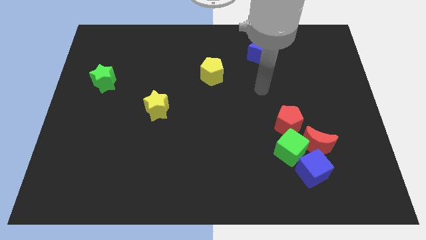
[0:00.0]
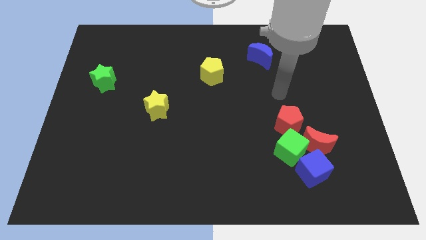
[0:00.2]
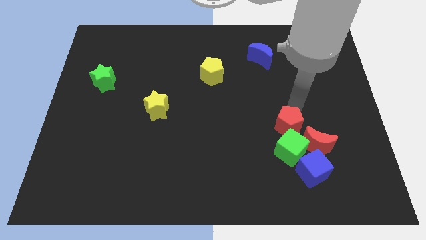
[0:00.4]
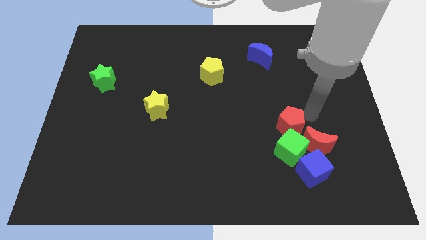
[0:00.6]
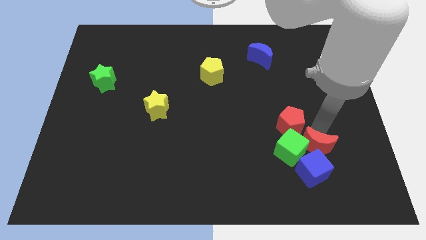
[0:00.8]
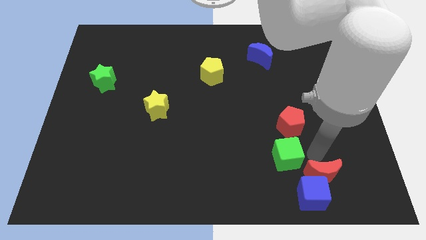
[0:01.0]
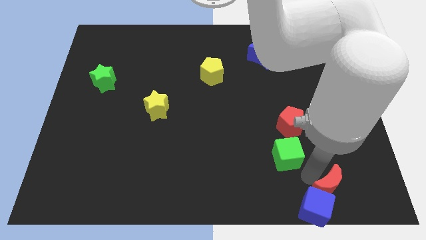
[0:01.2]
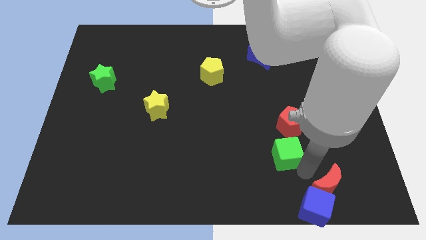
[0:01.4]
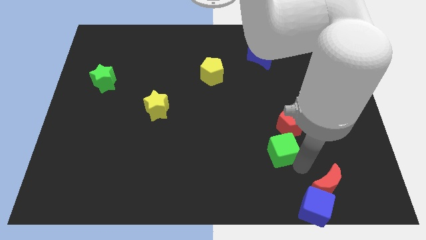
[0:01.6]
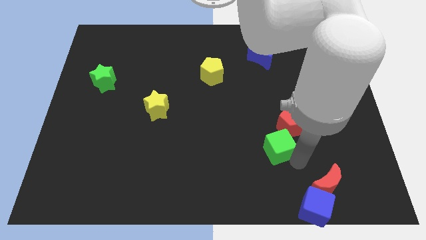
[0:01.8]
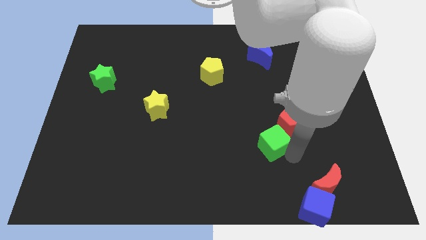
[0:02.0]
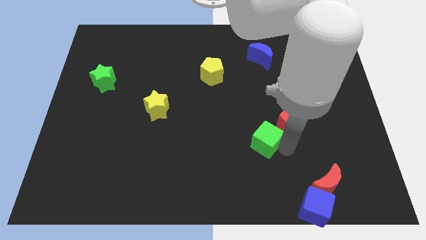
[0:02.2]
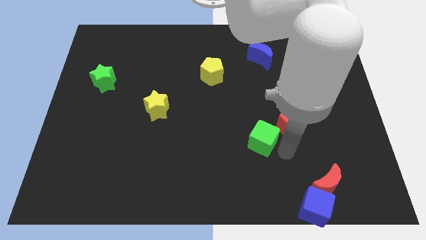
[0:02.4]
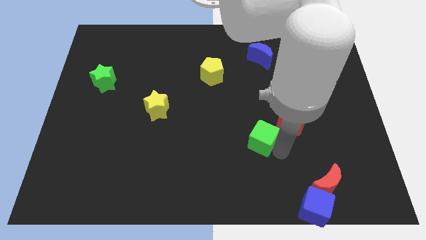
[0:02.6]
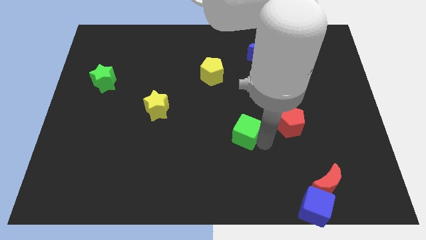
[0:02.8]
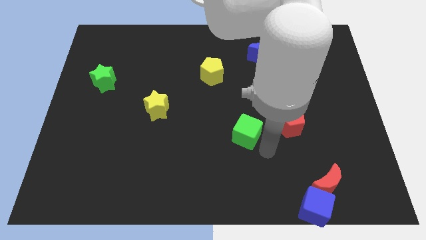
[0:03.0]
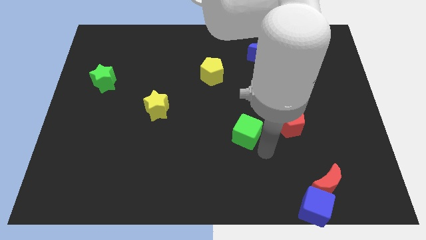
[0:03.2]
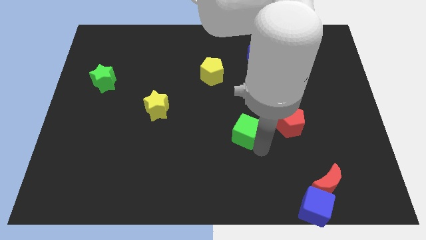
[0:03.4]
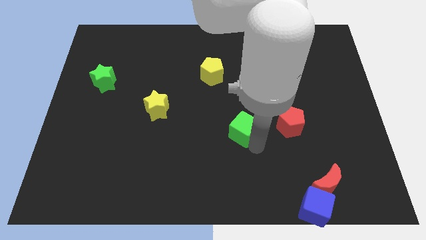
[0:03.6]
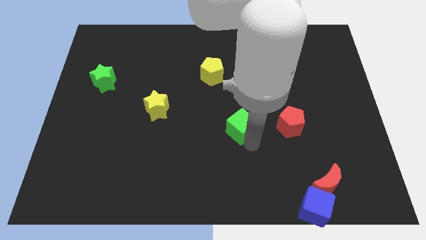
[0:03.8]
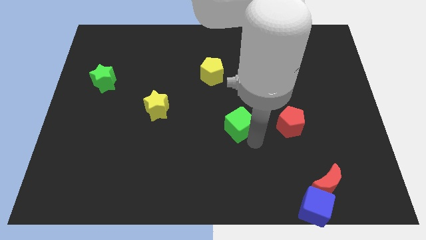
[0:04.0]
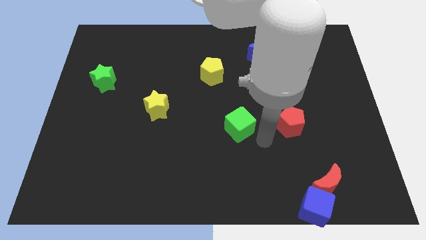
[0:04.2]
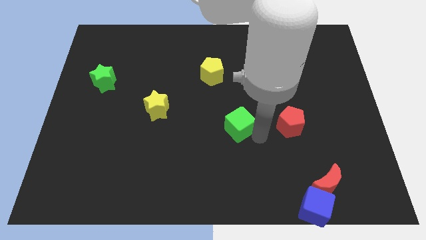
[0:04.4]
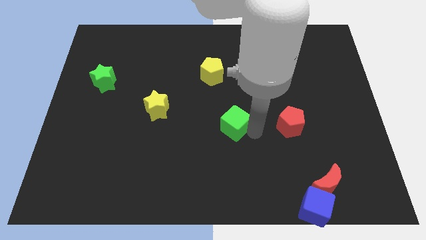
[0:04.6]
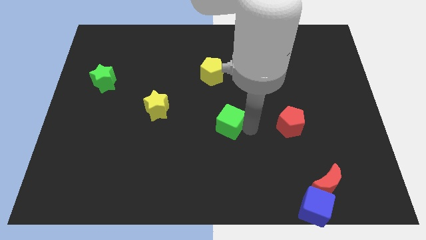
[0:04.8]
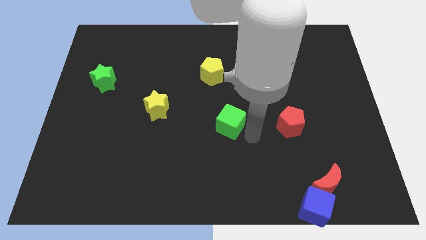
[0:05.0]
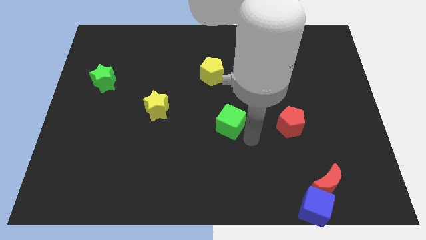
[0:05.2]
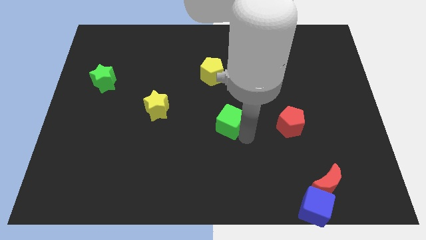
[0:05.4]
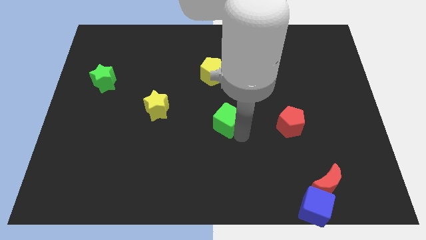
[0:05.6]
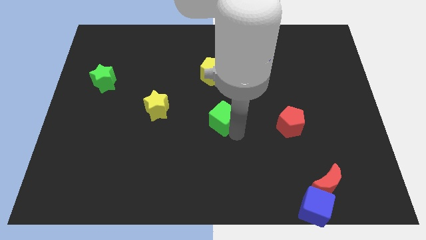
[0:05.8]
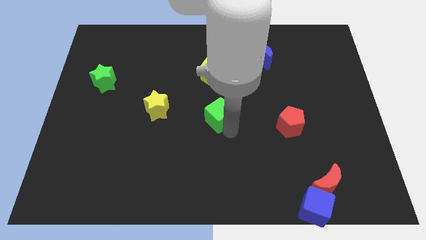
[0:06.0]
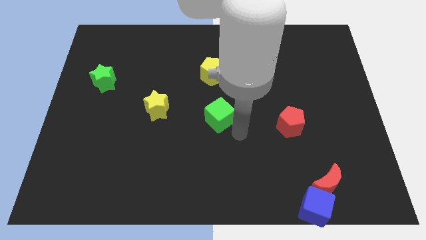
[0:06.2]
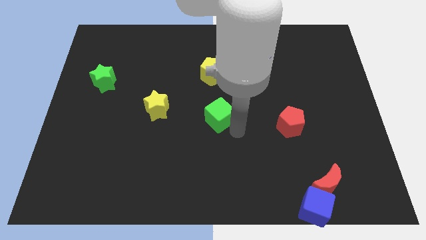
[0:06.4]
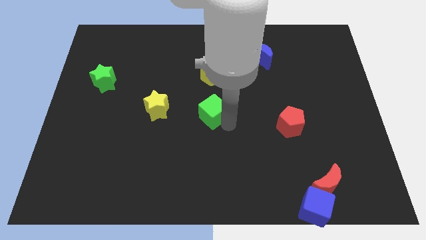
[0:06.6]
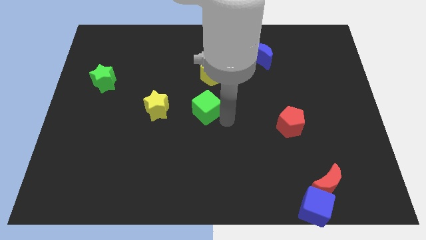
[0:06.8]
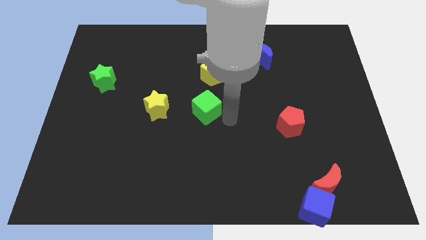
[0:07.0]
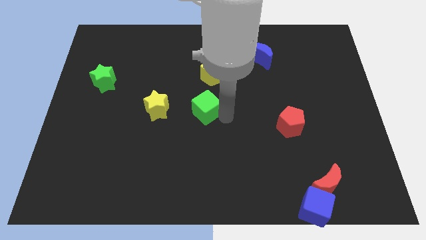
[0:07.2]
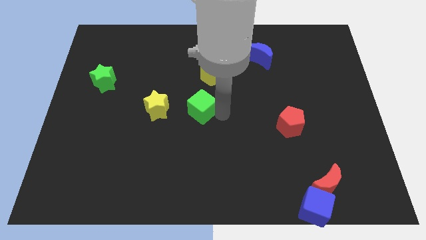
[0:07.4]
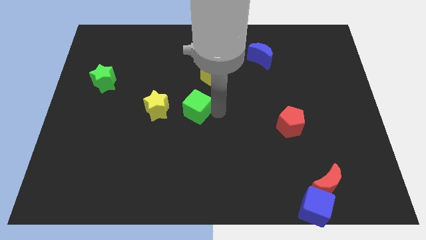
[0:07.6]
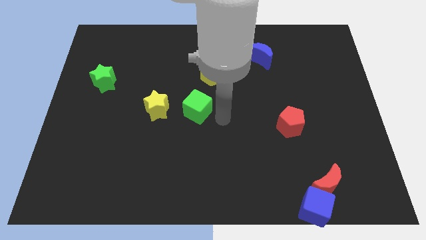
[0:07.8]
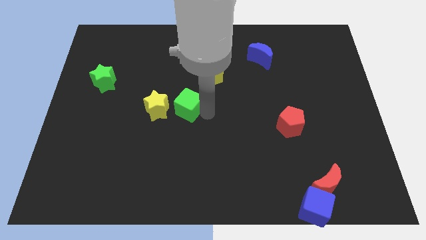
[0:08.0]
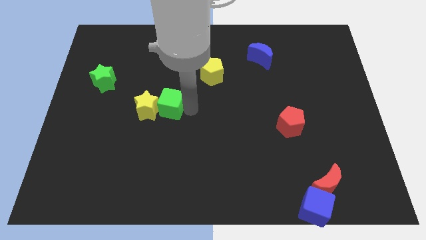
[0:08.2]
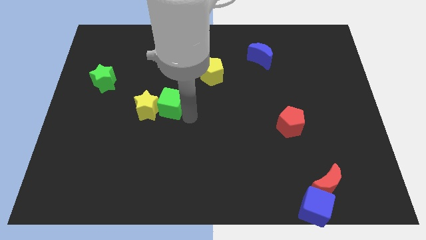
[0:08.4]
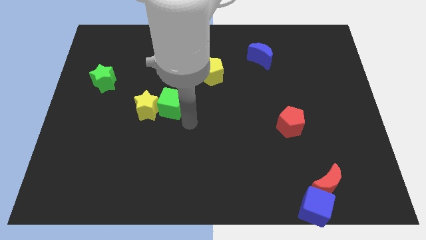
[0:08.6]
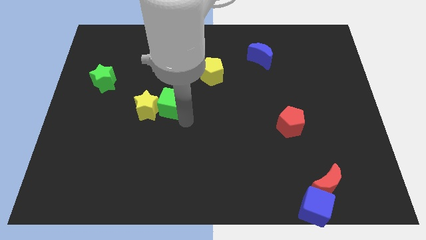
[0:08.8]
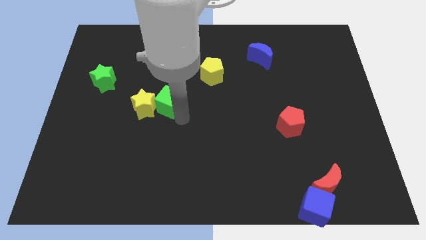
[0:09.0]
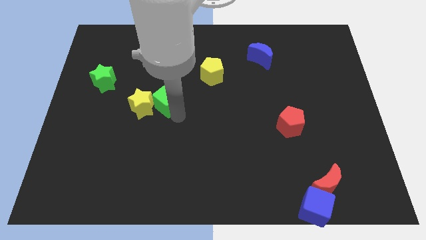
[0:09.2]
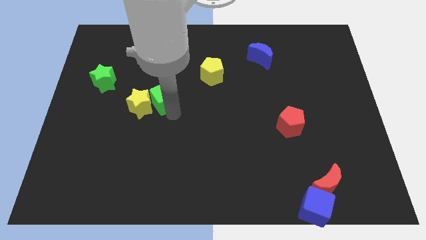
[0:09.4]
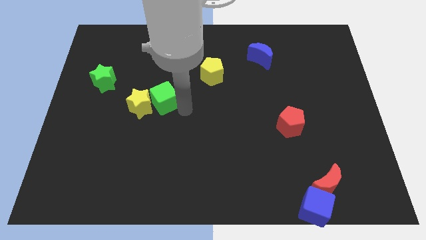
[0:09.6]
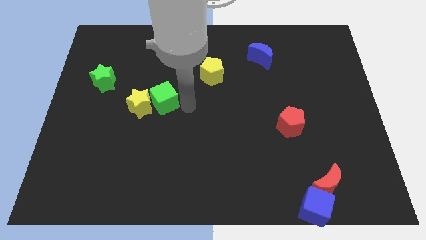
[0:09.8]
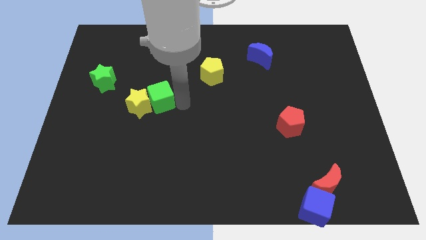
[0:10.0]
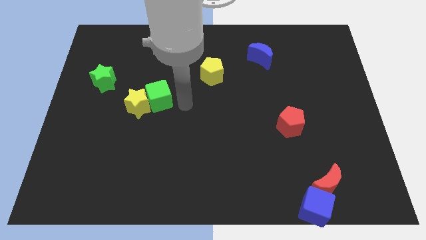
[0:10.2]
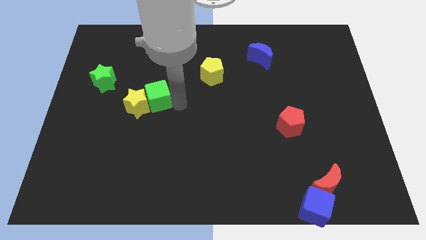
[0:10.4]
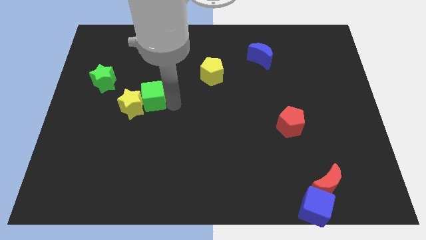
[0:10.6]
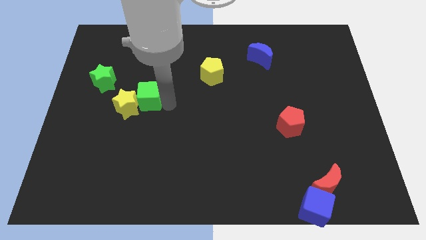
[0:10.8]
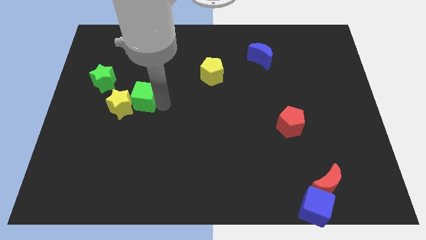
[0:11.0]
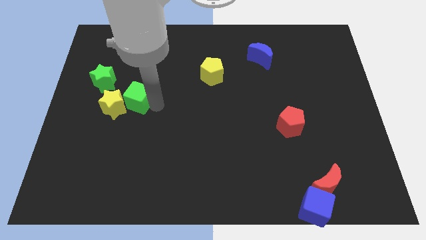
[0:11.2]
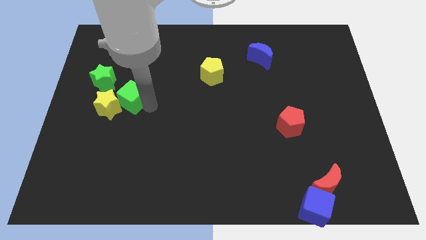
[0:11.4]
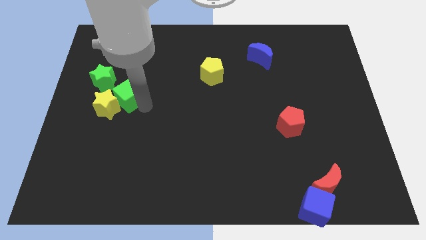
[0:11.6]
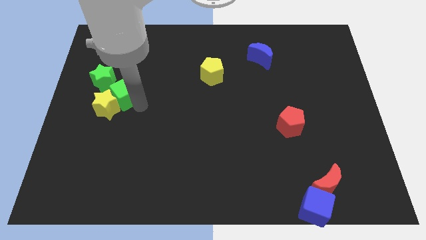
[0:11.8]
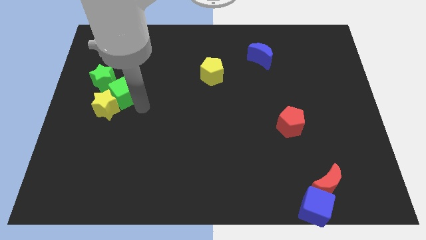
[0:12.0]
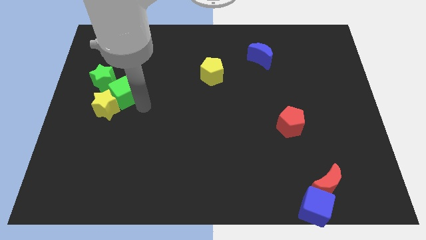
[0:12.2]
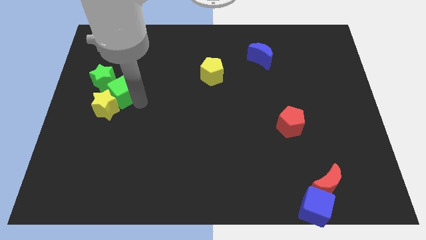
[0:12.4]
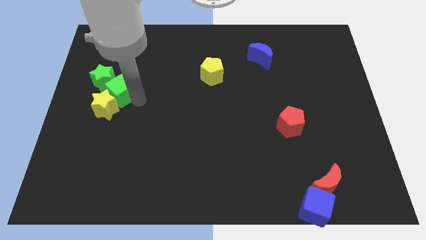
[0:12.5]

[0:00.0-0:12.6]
push the green cube close to the green star

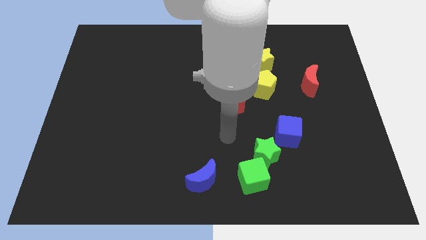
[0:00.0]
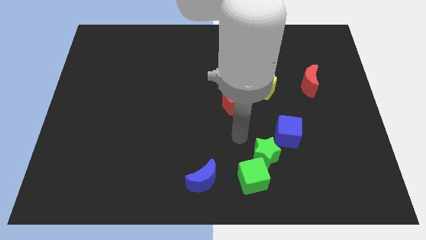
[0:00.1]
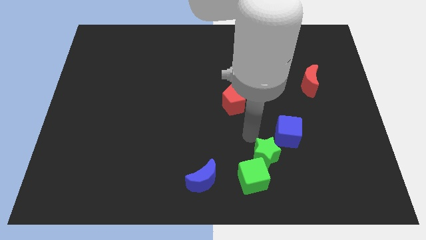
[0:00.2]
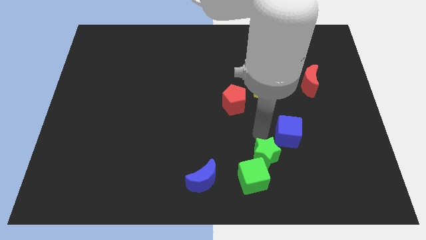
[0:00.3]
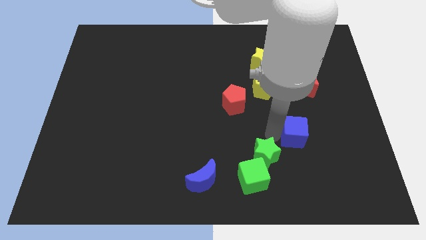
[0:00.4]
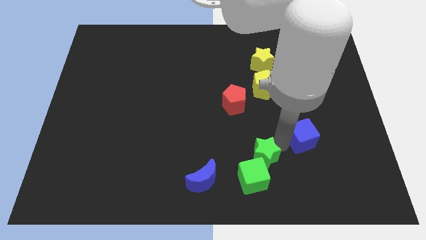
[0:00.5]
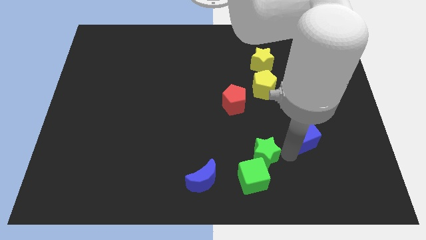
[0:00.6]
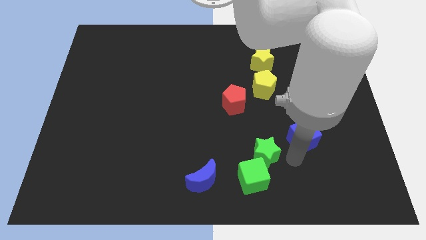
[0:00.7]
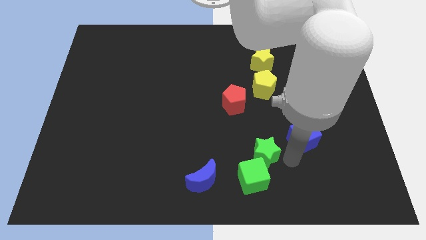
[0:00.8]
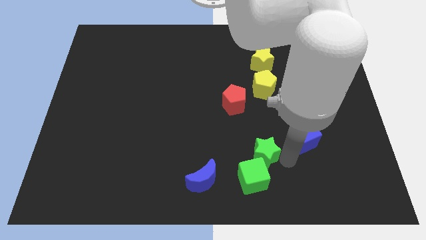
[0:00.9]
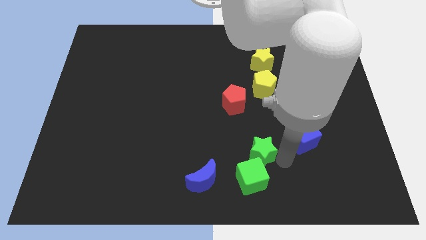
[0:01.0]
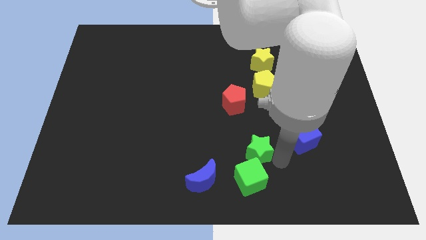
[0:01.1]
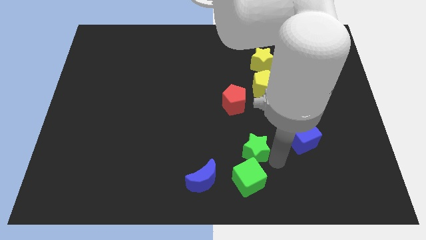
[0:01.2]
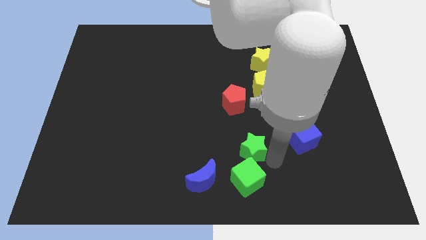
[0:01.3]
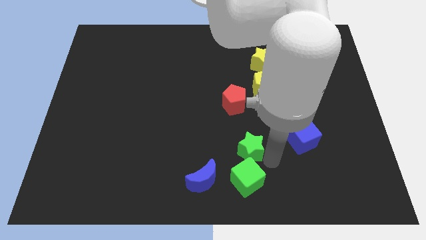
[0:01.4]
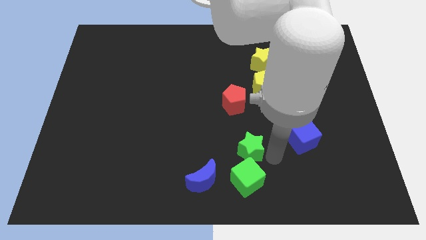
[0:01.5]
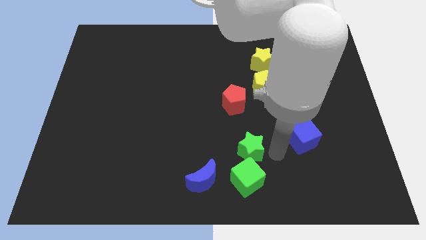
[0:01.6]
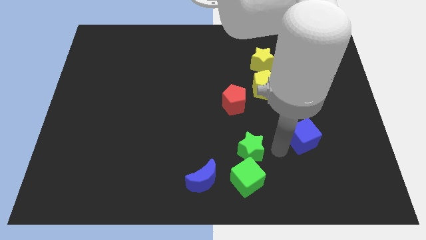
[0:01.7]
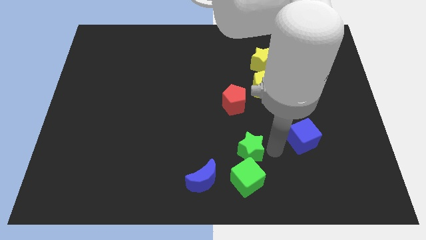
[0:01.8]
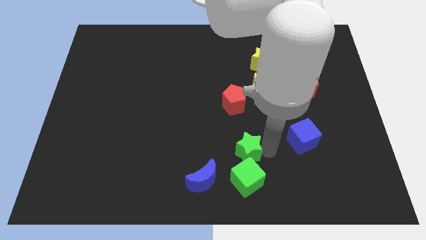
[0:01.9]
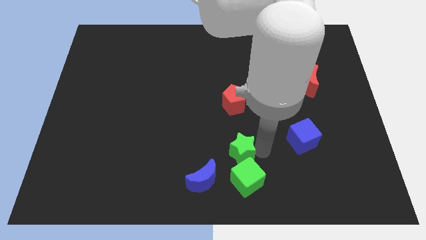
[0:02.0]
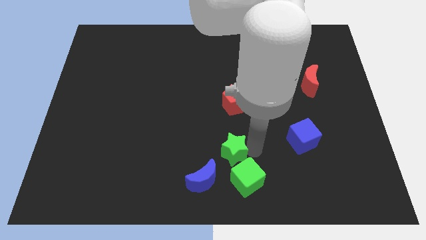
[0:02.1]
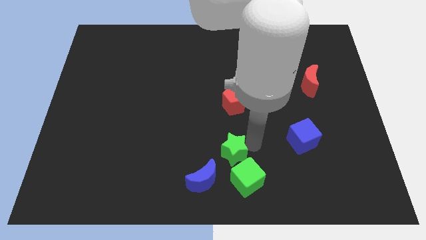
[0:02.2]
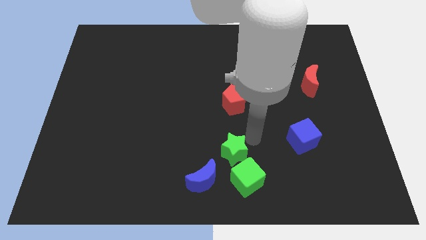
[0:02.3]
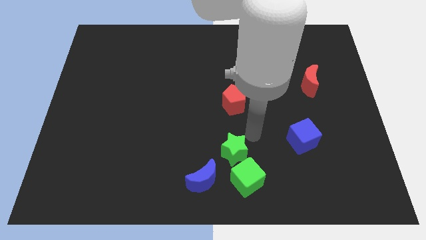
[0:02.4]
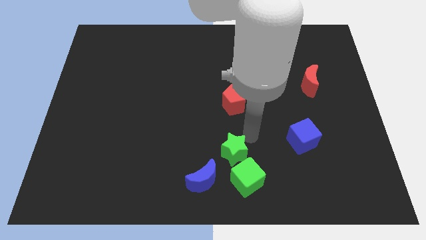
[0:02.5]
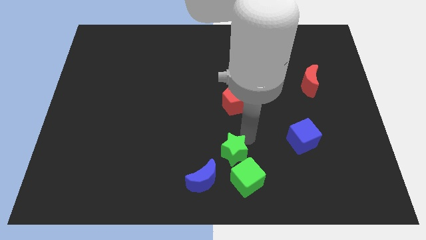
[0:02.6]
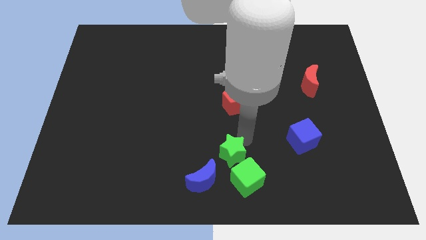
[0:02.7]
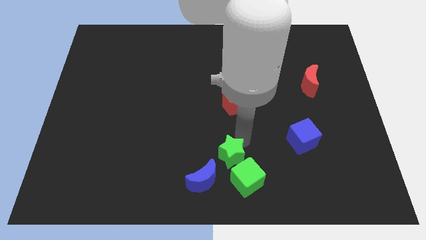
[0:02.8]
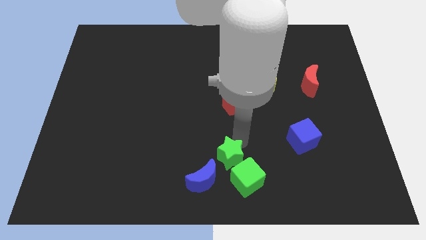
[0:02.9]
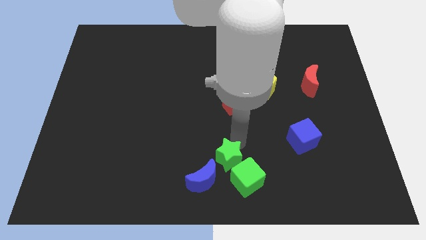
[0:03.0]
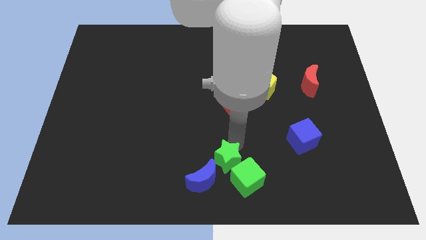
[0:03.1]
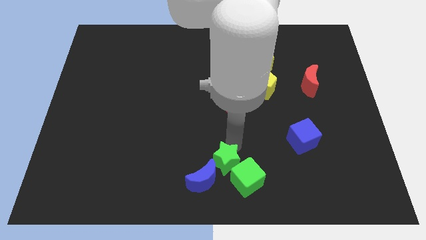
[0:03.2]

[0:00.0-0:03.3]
push the green star towards the blue moon
